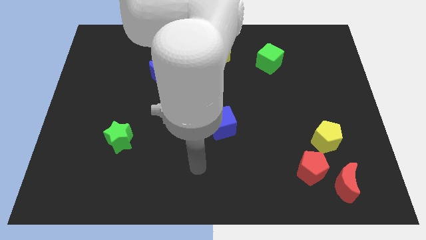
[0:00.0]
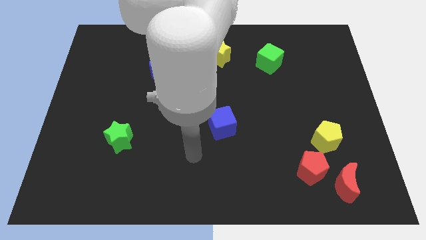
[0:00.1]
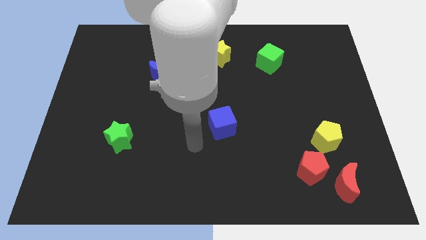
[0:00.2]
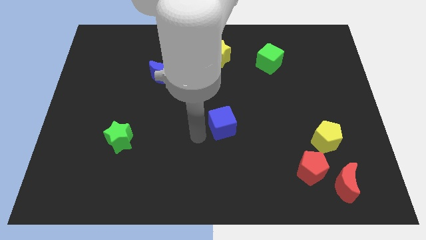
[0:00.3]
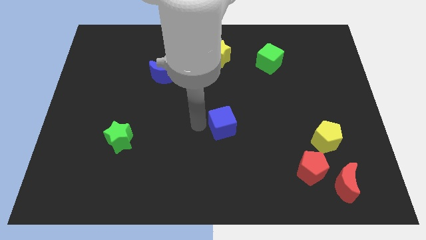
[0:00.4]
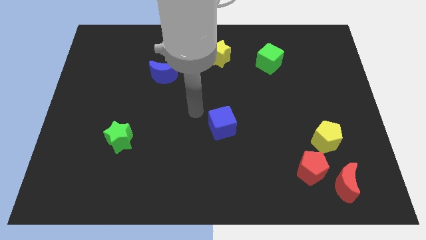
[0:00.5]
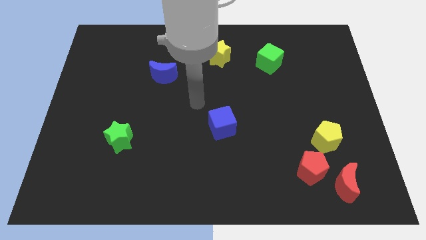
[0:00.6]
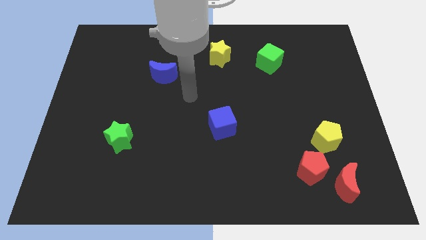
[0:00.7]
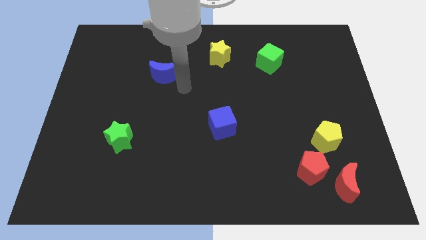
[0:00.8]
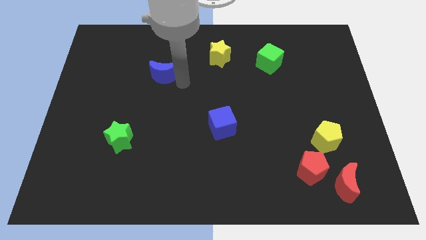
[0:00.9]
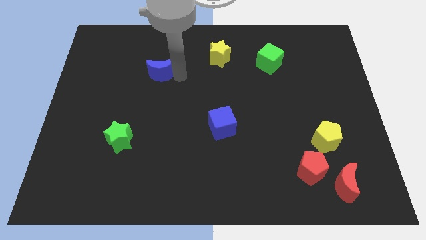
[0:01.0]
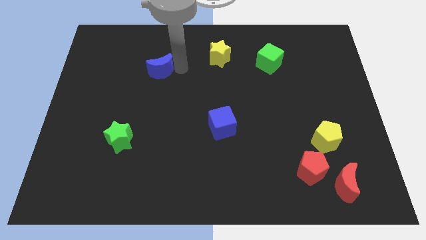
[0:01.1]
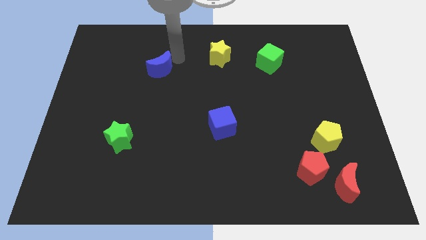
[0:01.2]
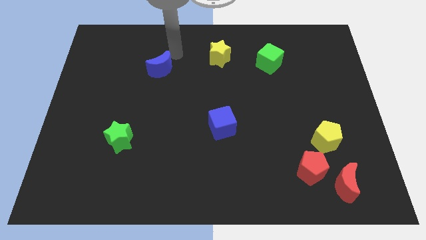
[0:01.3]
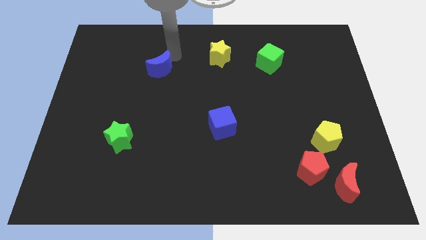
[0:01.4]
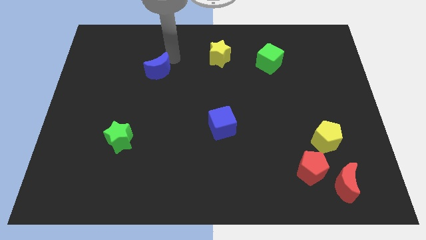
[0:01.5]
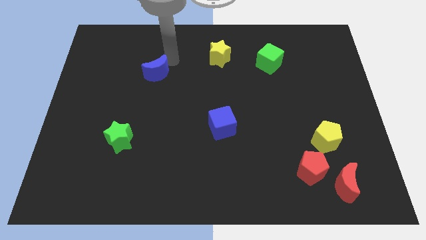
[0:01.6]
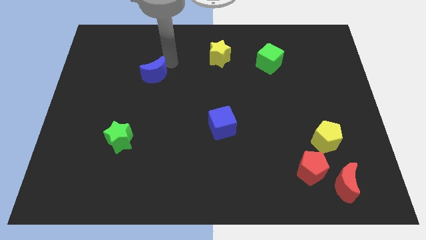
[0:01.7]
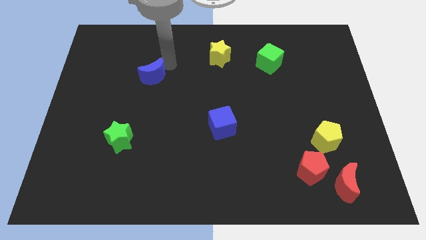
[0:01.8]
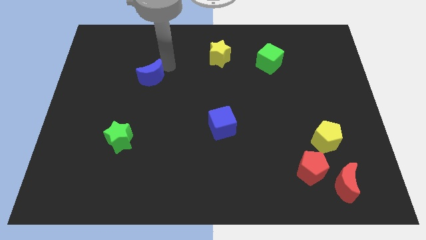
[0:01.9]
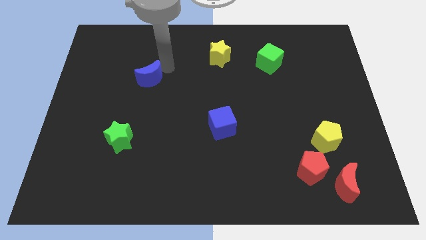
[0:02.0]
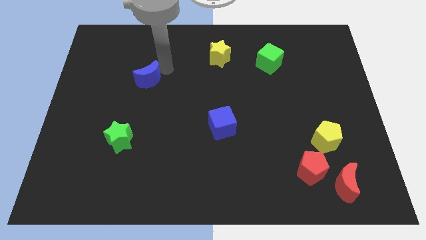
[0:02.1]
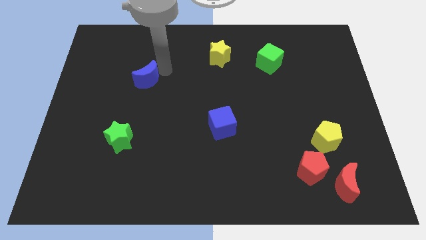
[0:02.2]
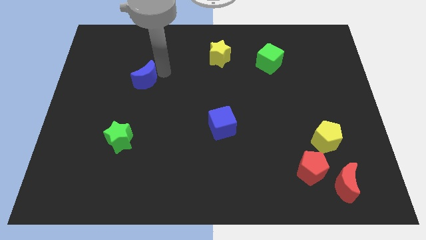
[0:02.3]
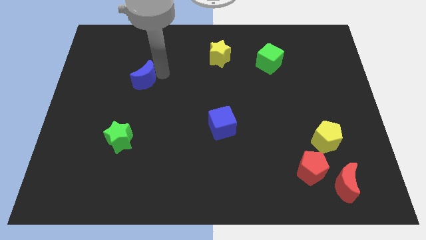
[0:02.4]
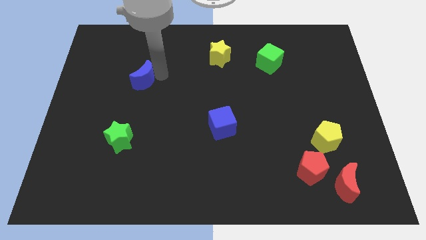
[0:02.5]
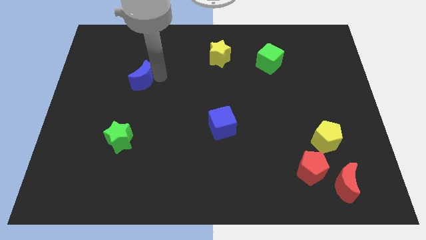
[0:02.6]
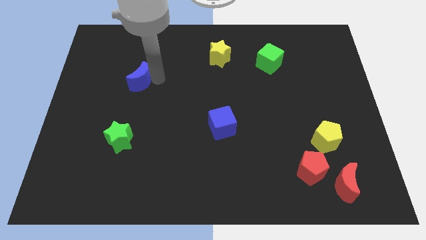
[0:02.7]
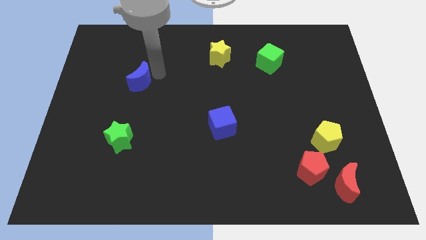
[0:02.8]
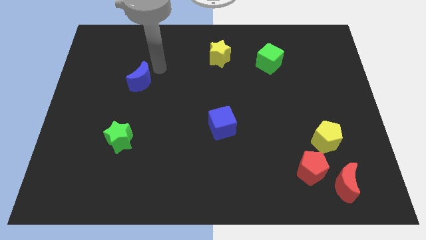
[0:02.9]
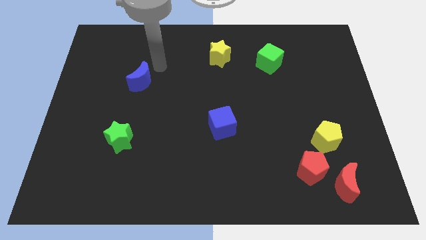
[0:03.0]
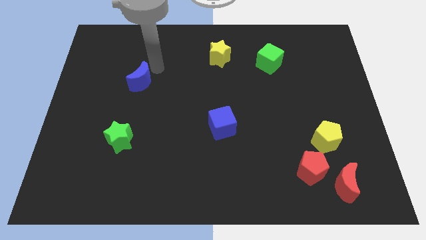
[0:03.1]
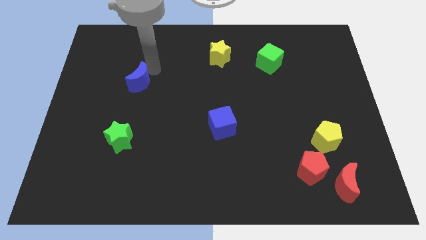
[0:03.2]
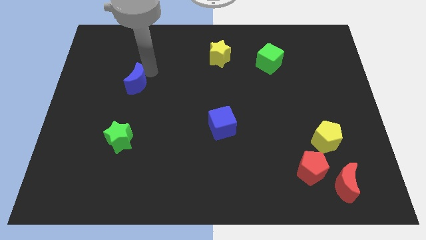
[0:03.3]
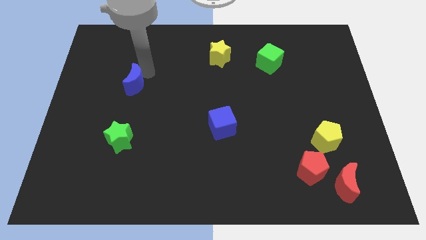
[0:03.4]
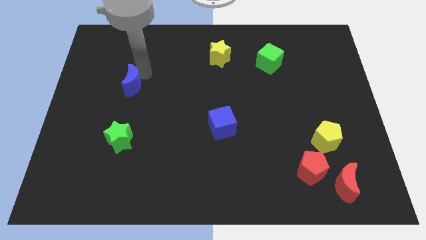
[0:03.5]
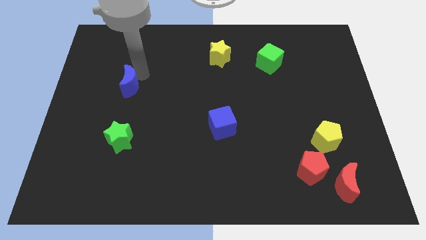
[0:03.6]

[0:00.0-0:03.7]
slightly move the blue moon downwards and left diagonally

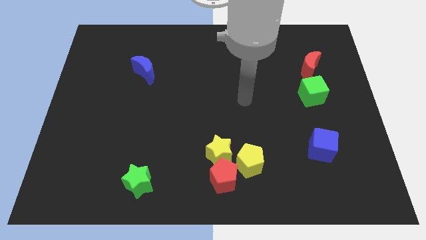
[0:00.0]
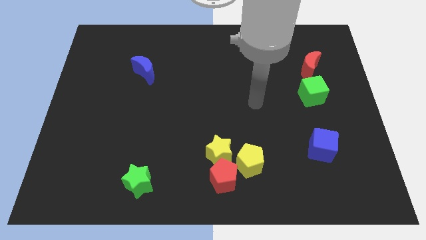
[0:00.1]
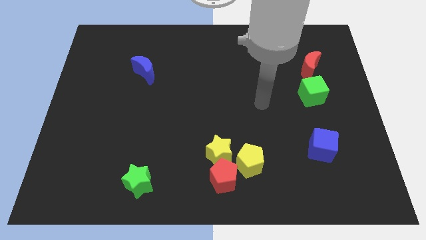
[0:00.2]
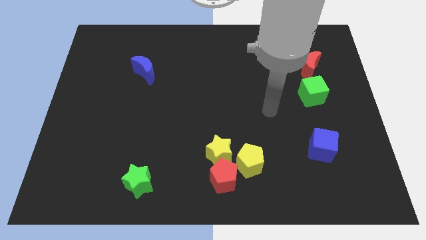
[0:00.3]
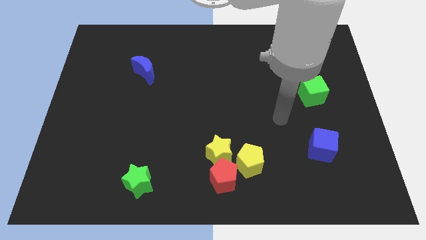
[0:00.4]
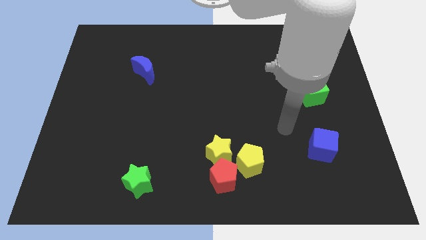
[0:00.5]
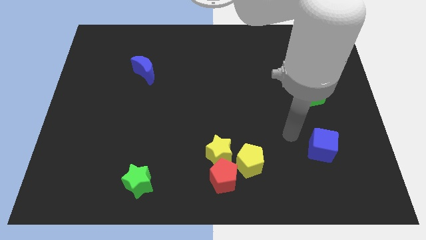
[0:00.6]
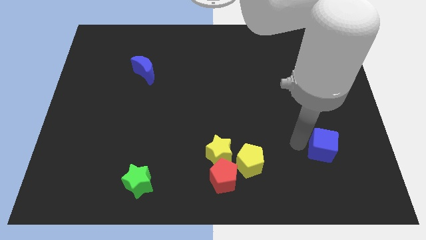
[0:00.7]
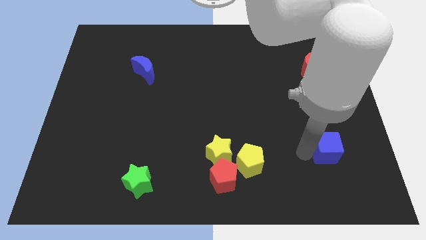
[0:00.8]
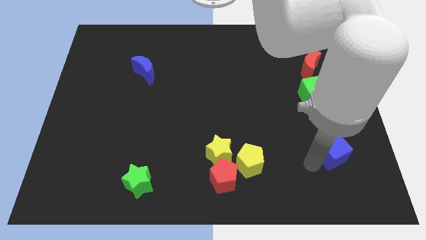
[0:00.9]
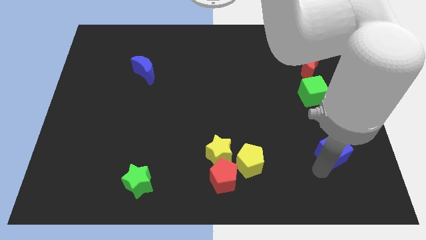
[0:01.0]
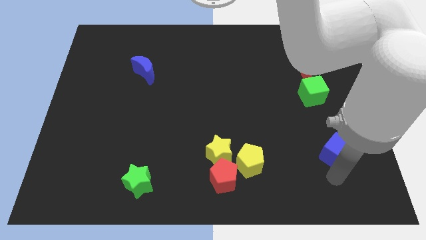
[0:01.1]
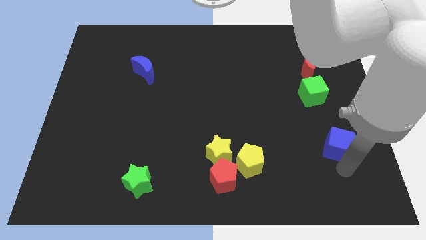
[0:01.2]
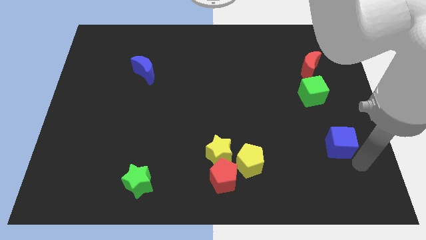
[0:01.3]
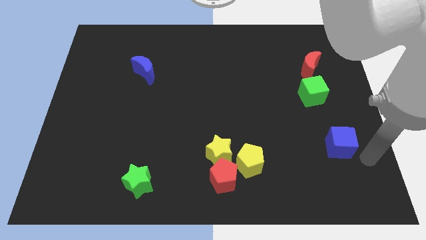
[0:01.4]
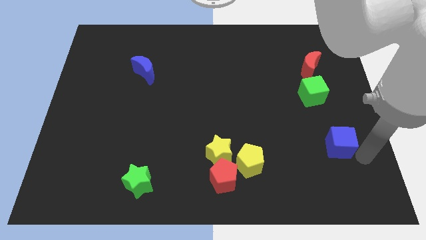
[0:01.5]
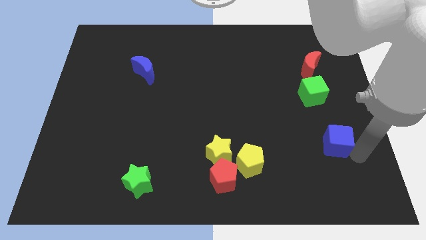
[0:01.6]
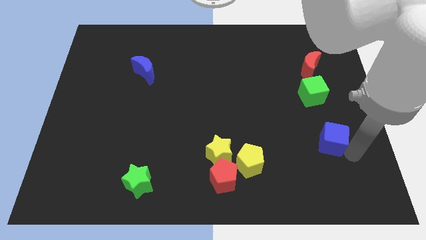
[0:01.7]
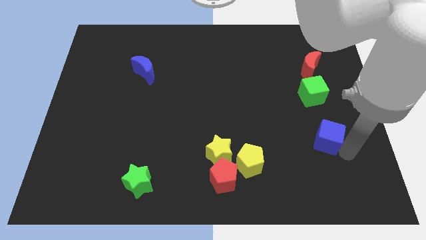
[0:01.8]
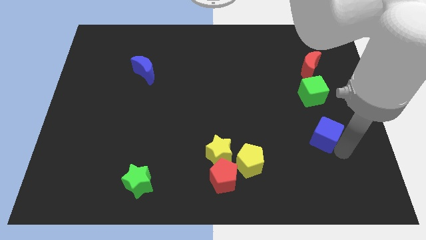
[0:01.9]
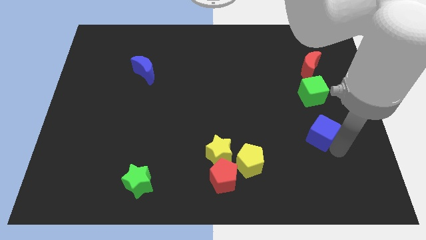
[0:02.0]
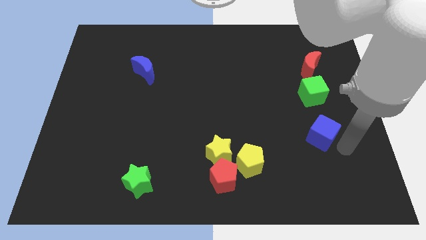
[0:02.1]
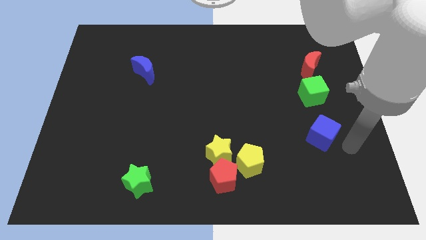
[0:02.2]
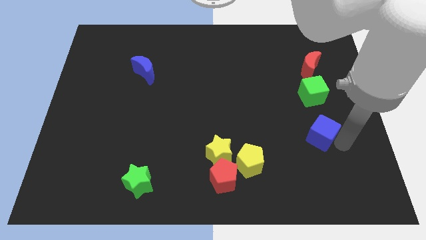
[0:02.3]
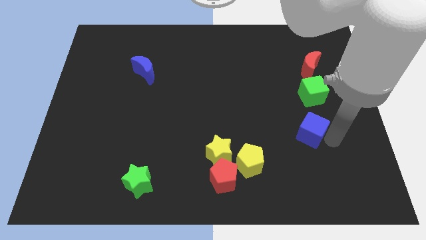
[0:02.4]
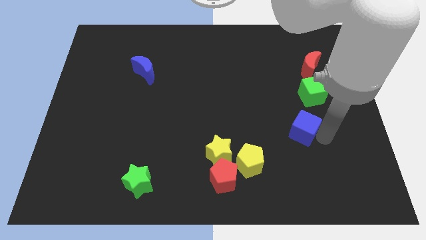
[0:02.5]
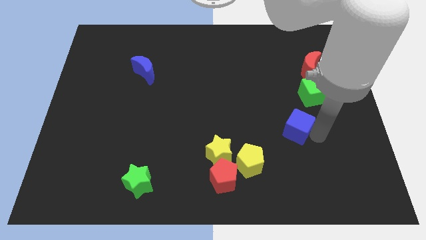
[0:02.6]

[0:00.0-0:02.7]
slightly push the blue cube upwards and left diagonally

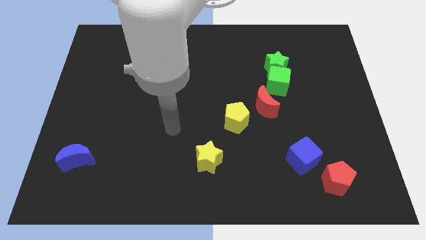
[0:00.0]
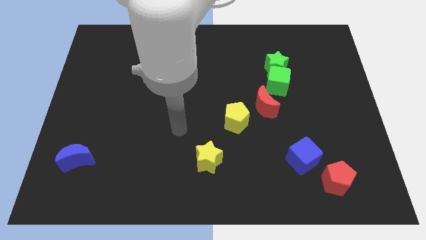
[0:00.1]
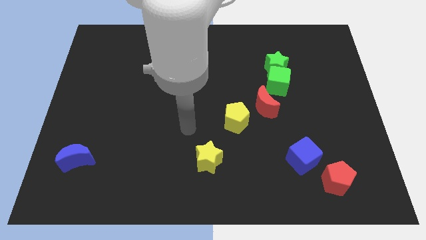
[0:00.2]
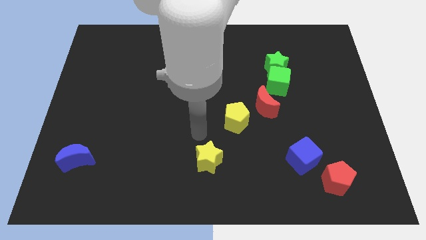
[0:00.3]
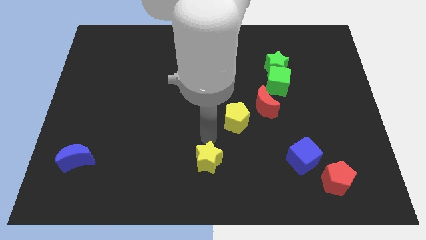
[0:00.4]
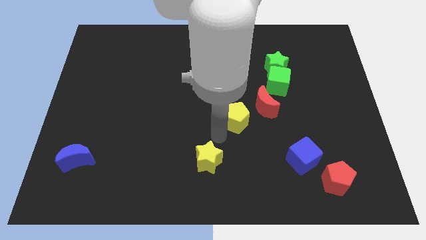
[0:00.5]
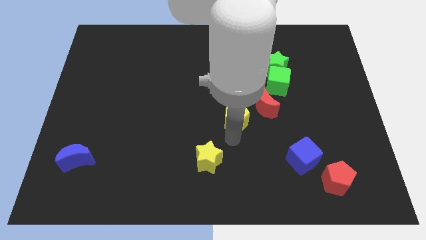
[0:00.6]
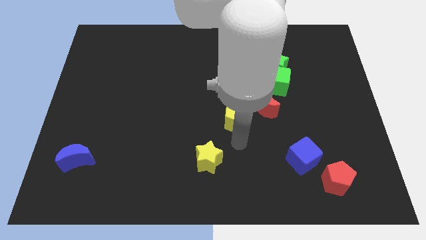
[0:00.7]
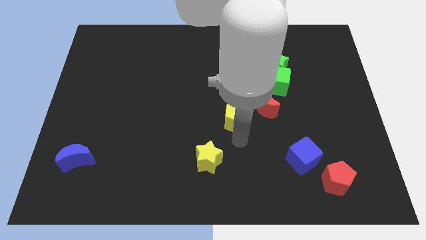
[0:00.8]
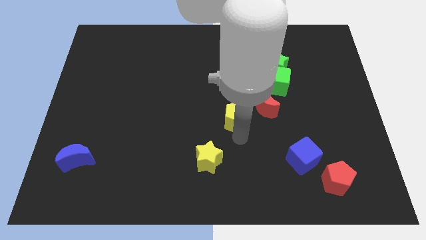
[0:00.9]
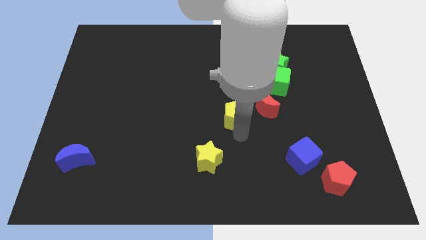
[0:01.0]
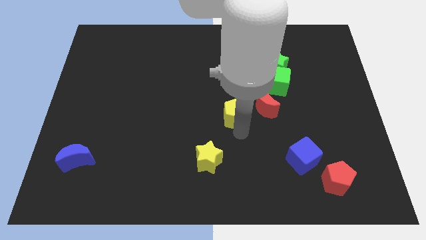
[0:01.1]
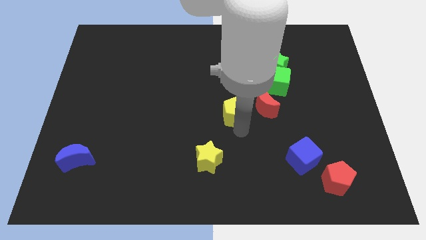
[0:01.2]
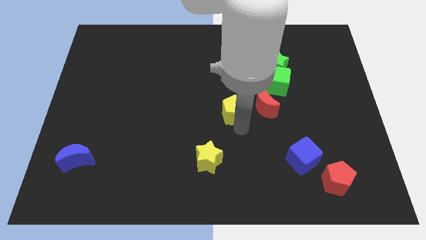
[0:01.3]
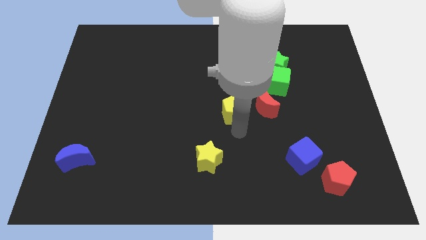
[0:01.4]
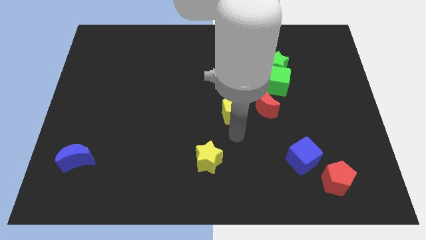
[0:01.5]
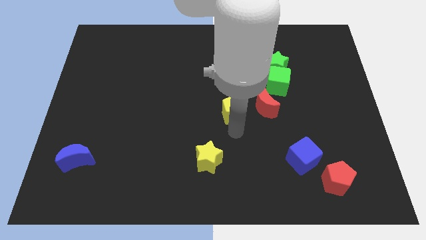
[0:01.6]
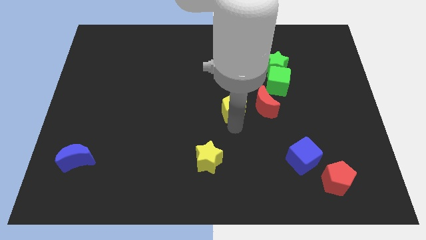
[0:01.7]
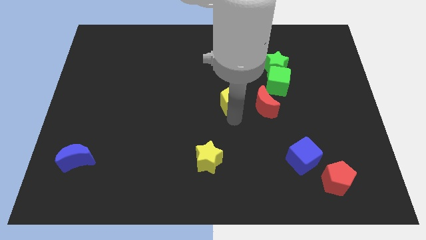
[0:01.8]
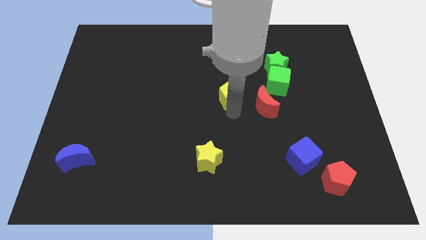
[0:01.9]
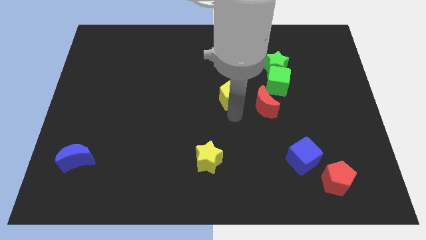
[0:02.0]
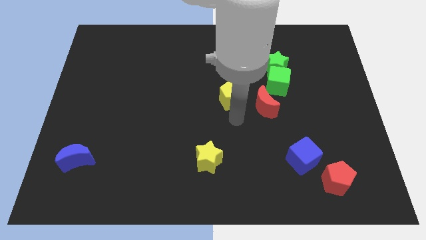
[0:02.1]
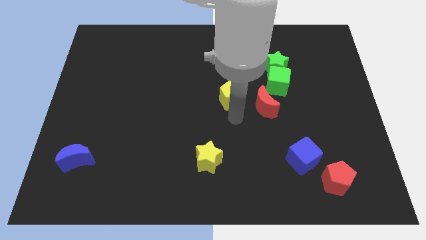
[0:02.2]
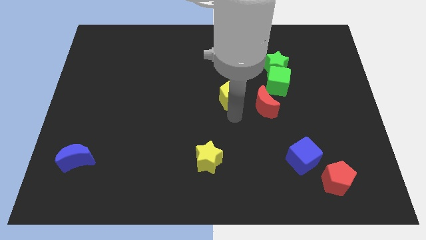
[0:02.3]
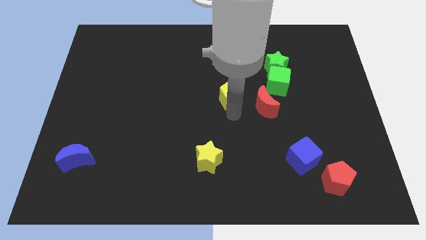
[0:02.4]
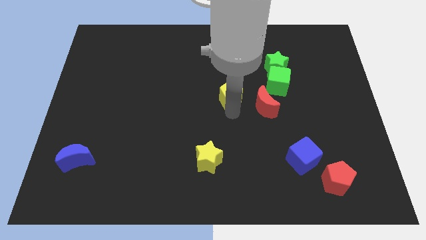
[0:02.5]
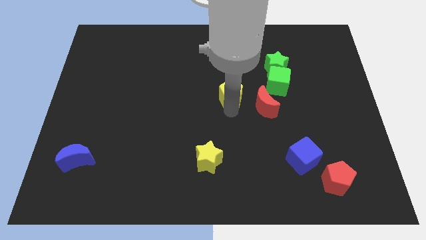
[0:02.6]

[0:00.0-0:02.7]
push the yellow pentagon upwards a little bit
